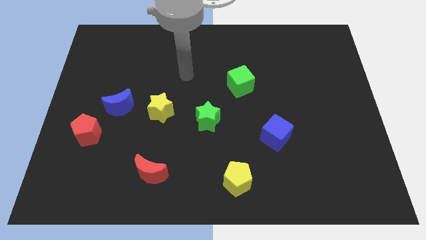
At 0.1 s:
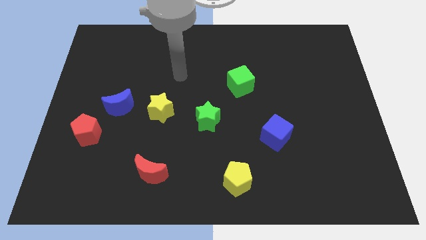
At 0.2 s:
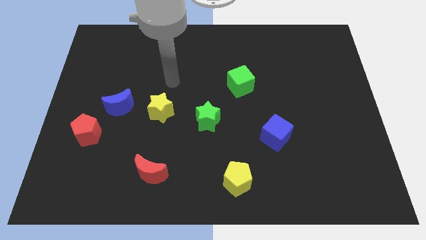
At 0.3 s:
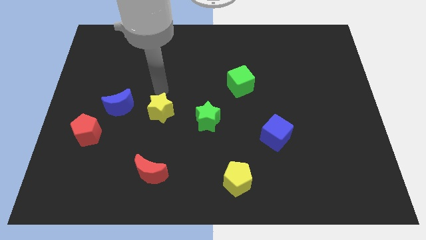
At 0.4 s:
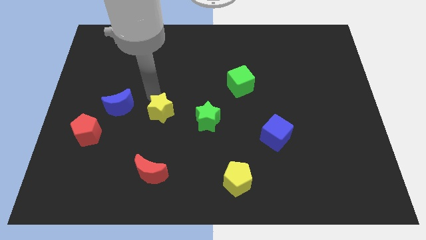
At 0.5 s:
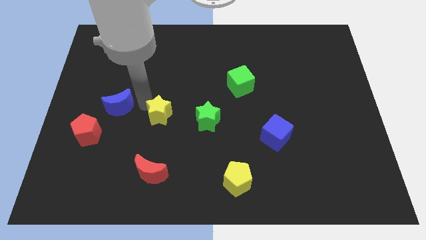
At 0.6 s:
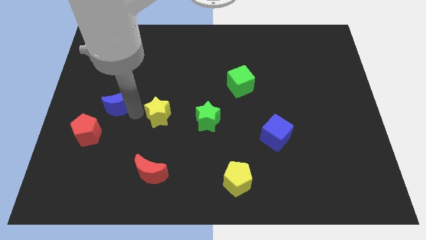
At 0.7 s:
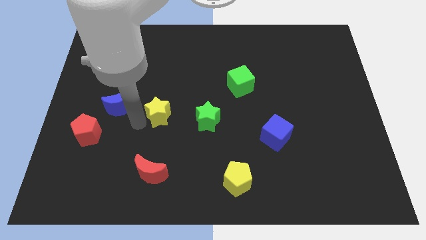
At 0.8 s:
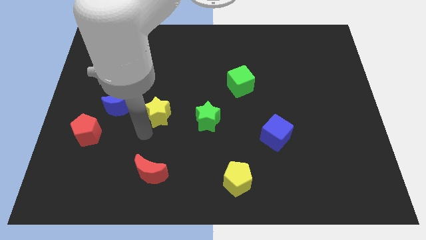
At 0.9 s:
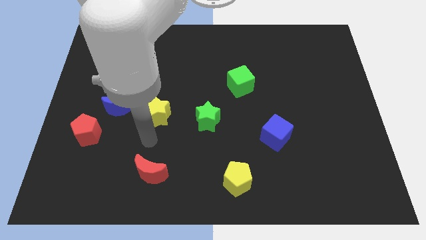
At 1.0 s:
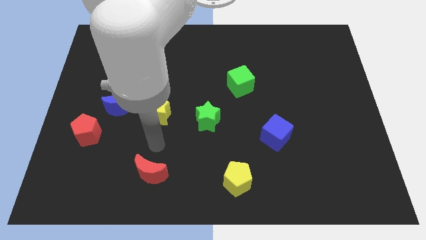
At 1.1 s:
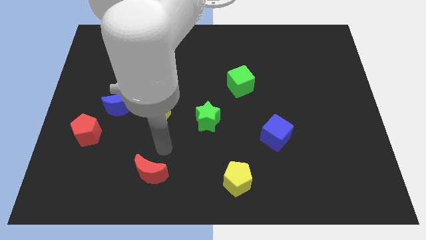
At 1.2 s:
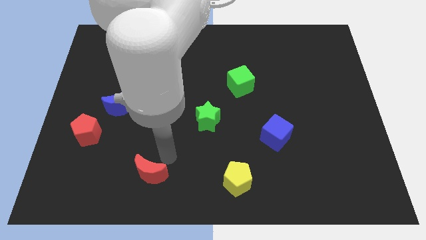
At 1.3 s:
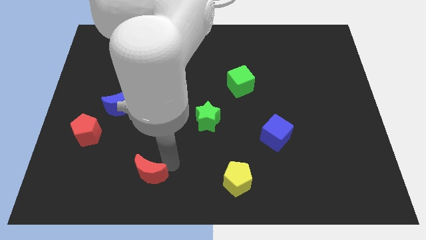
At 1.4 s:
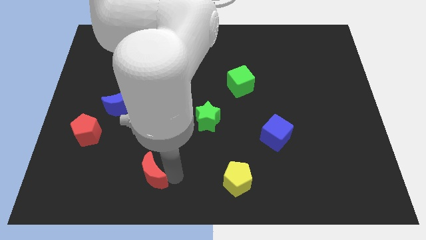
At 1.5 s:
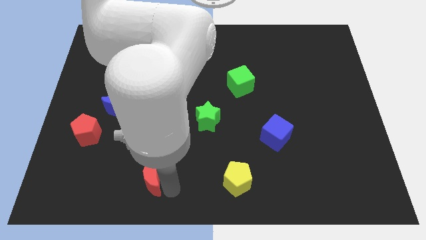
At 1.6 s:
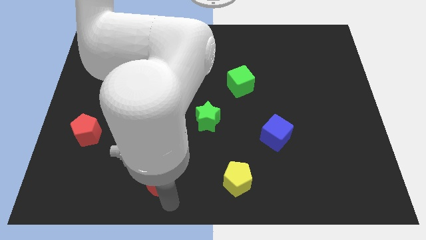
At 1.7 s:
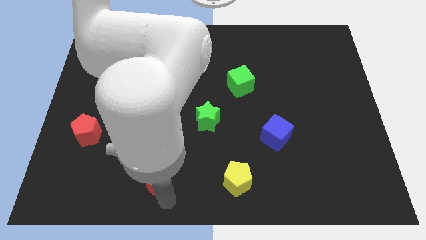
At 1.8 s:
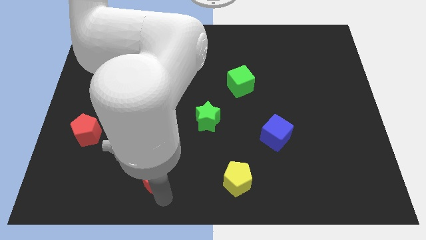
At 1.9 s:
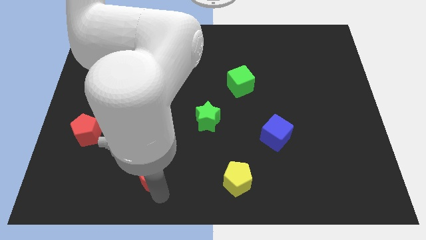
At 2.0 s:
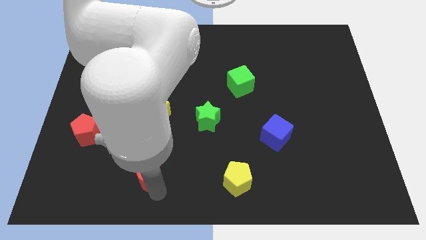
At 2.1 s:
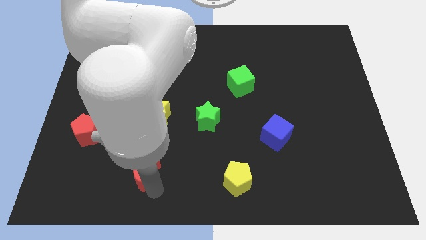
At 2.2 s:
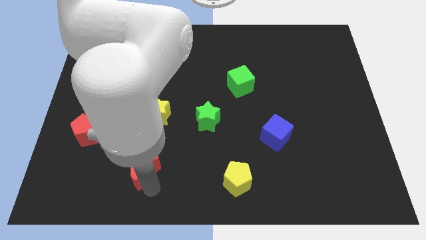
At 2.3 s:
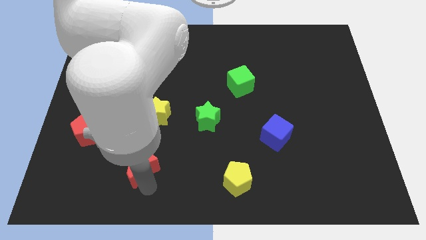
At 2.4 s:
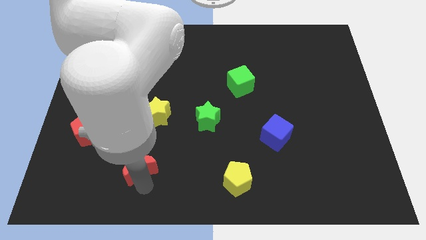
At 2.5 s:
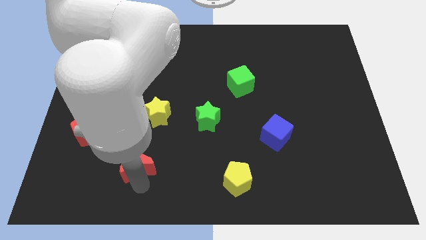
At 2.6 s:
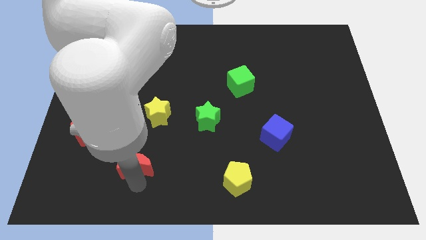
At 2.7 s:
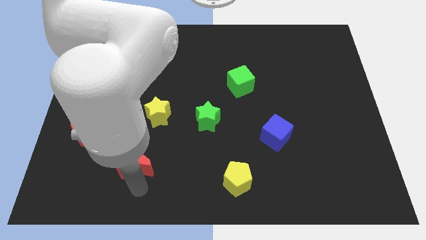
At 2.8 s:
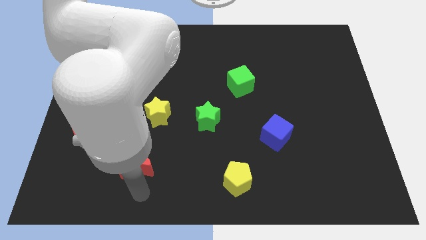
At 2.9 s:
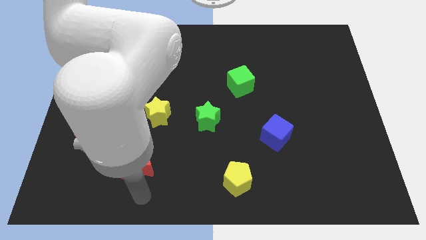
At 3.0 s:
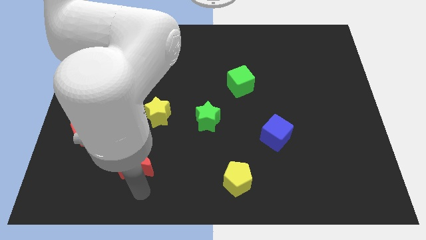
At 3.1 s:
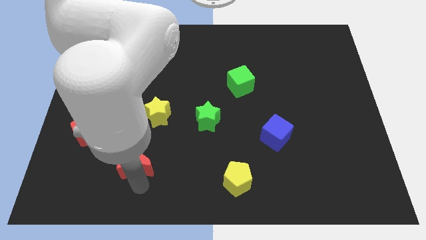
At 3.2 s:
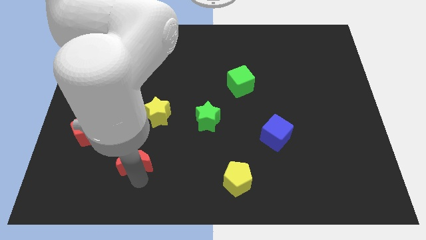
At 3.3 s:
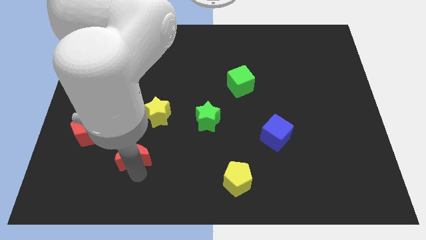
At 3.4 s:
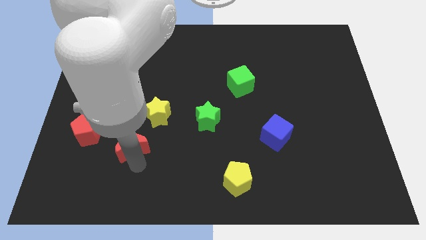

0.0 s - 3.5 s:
slide the red moon diagonally up and to the left somewhat

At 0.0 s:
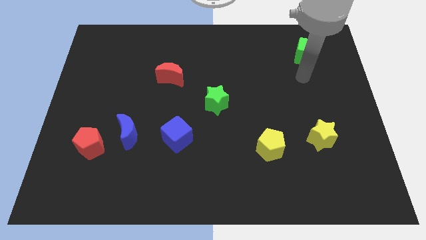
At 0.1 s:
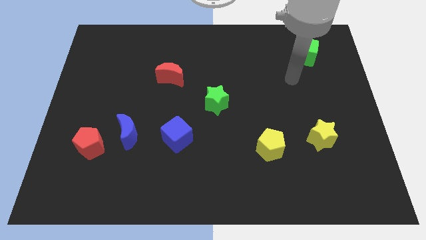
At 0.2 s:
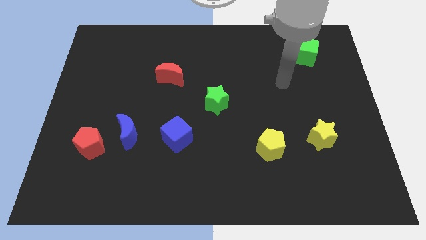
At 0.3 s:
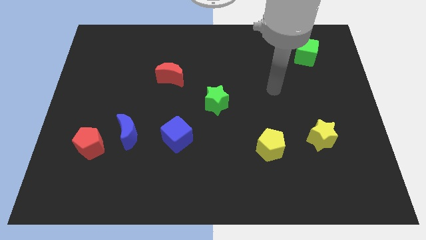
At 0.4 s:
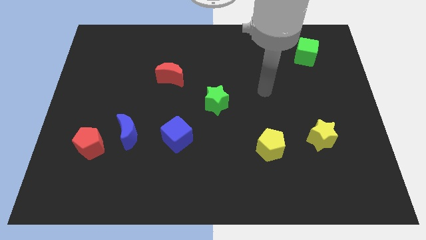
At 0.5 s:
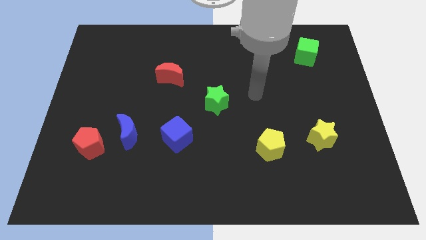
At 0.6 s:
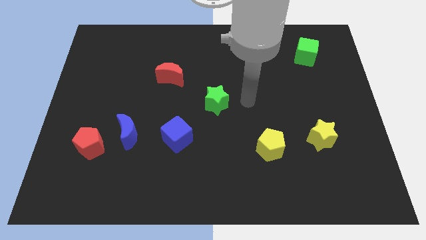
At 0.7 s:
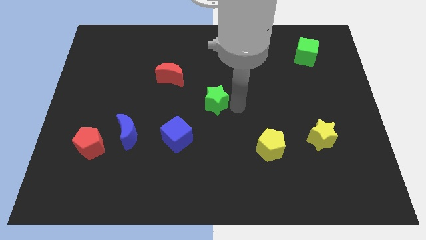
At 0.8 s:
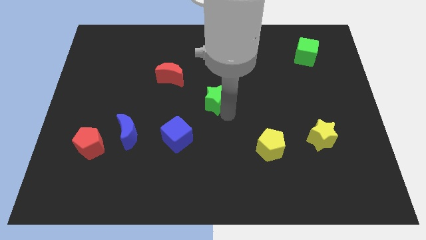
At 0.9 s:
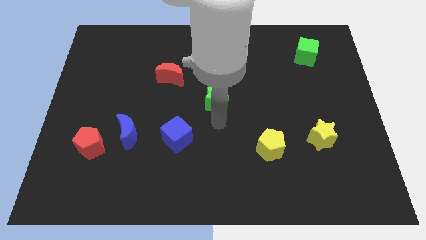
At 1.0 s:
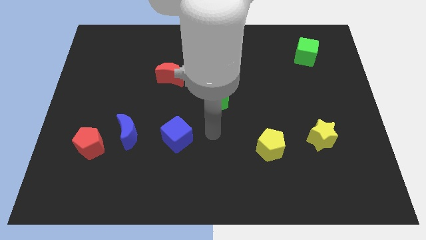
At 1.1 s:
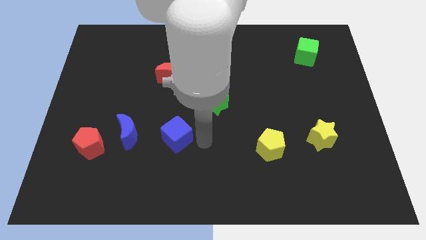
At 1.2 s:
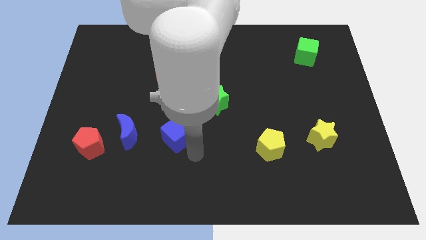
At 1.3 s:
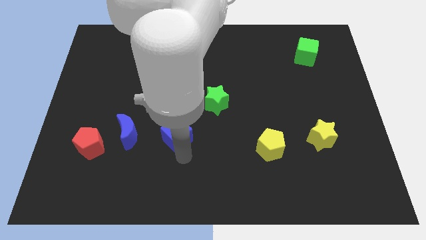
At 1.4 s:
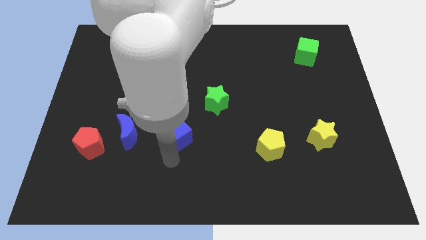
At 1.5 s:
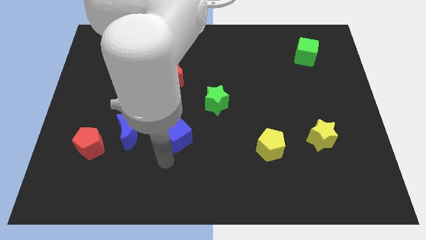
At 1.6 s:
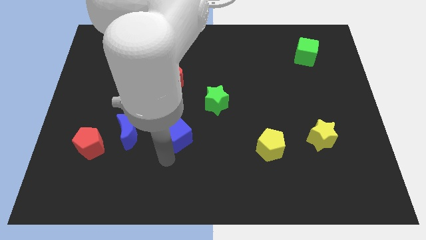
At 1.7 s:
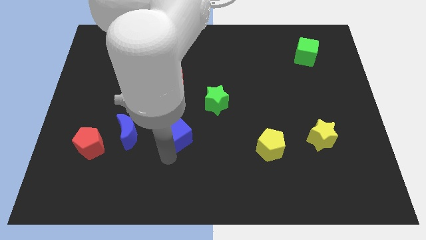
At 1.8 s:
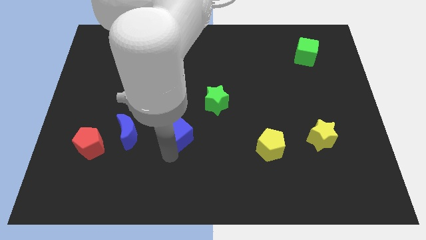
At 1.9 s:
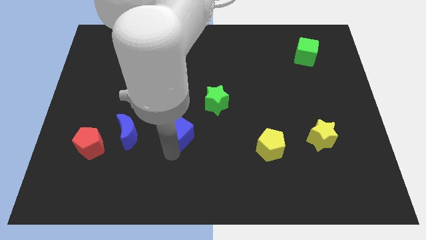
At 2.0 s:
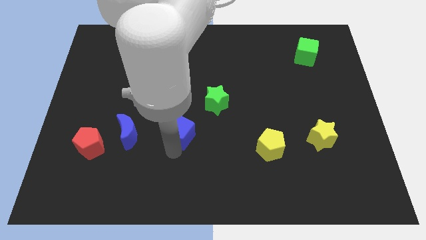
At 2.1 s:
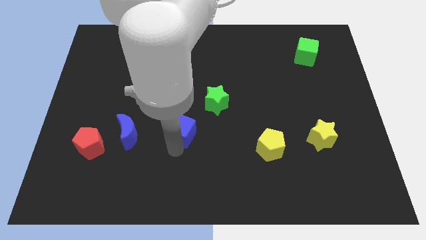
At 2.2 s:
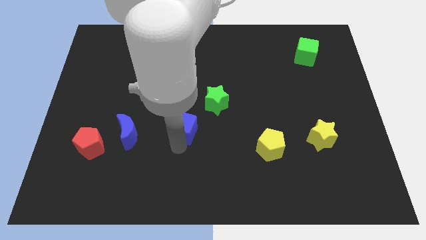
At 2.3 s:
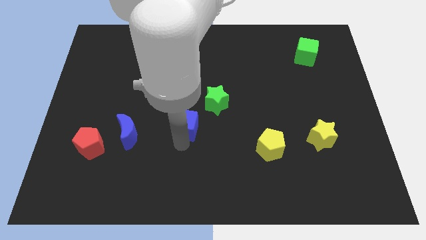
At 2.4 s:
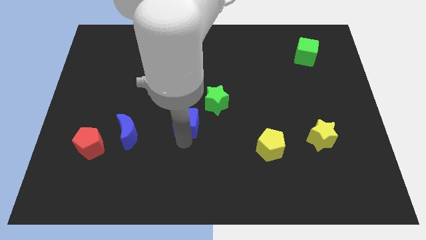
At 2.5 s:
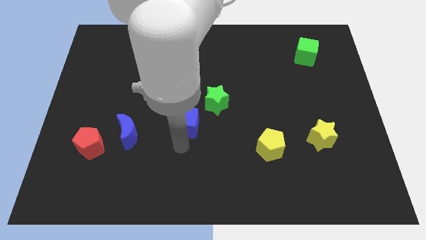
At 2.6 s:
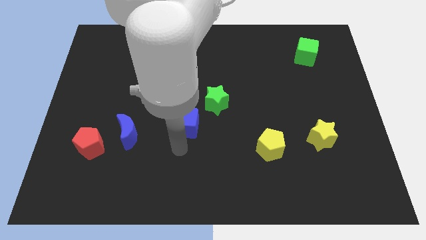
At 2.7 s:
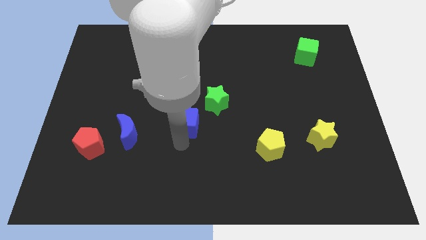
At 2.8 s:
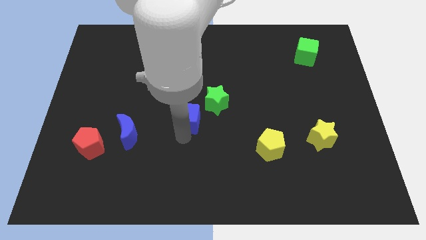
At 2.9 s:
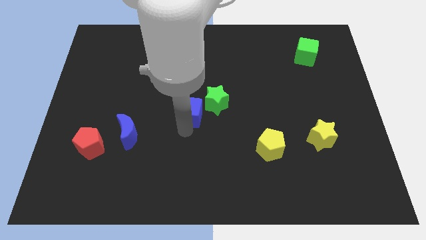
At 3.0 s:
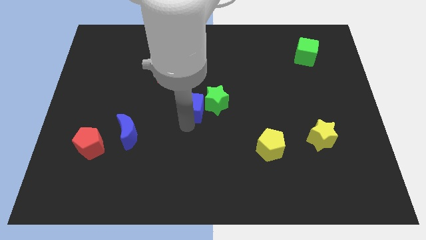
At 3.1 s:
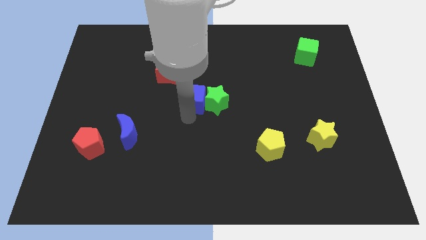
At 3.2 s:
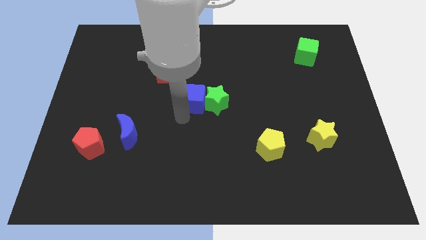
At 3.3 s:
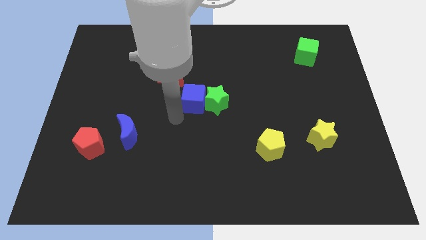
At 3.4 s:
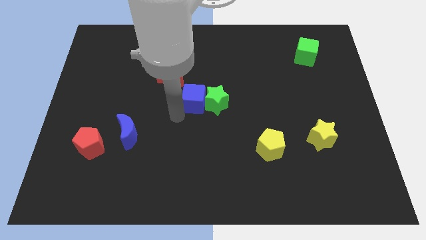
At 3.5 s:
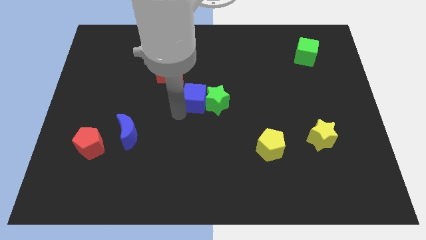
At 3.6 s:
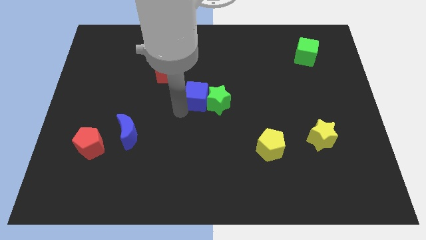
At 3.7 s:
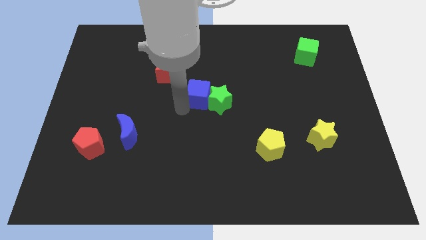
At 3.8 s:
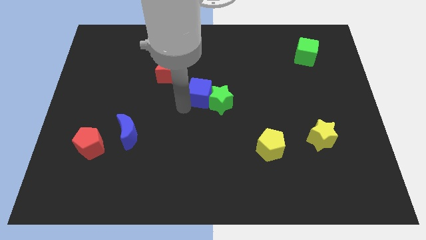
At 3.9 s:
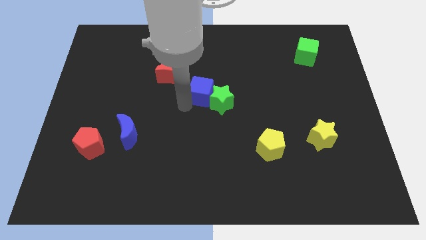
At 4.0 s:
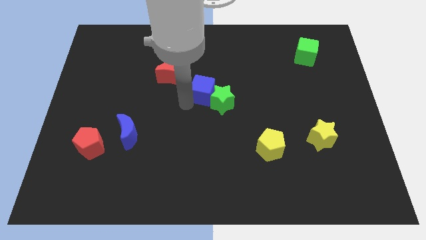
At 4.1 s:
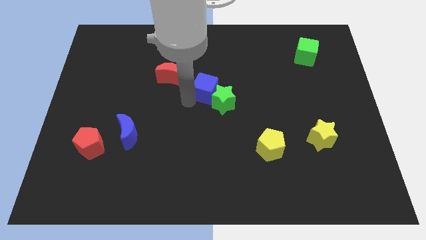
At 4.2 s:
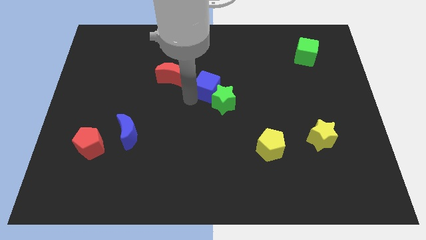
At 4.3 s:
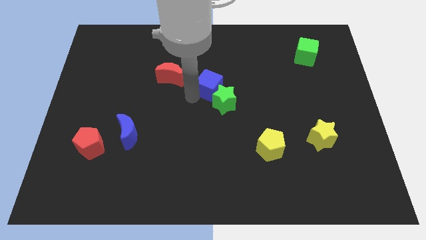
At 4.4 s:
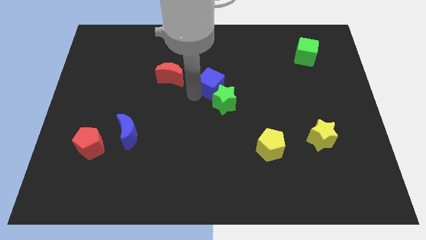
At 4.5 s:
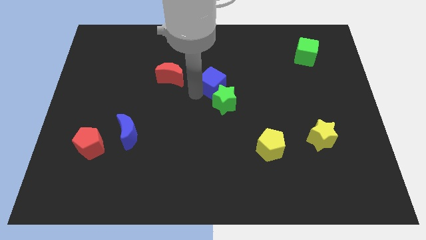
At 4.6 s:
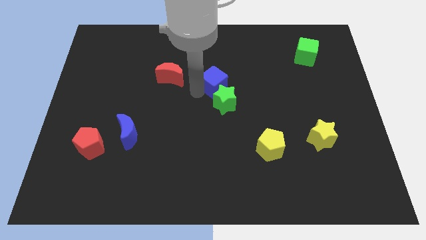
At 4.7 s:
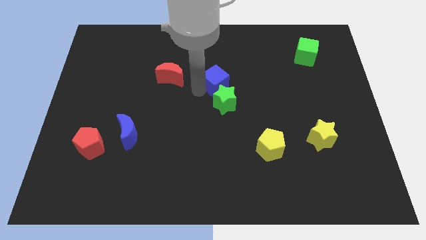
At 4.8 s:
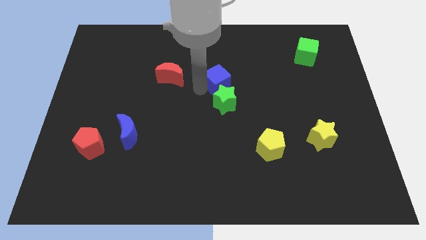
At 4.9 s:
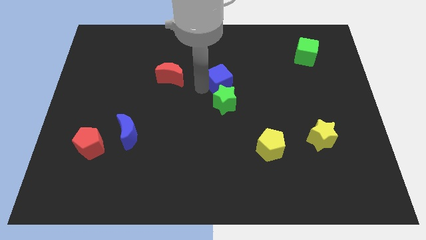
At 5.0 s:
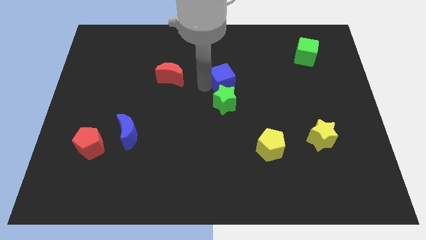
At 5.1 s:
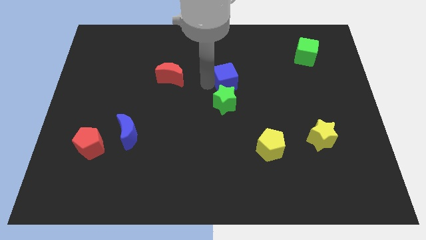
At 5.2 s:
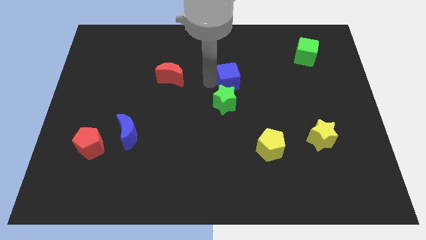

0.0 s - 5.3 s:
move the blue cube upwards and right diagonally
